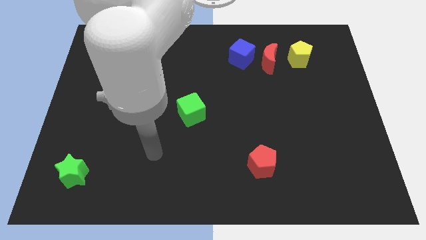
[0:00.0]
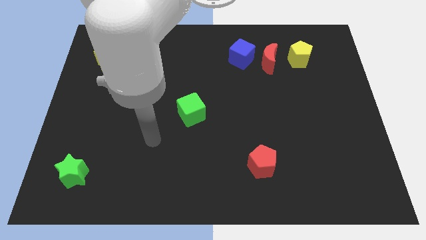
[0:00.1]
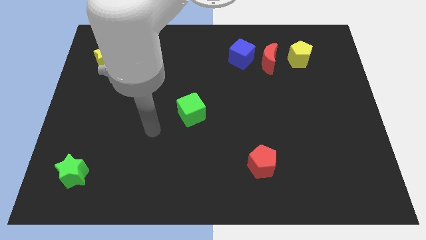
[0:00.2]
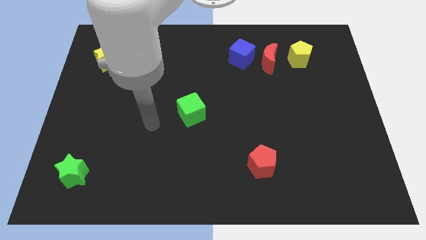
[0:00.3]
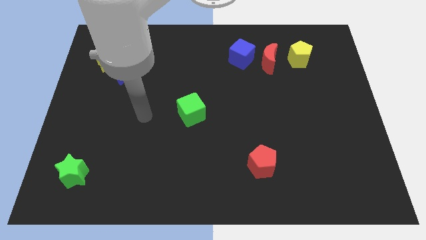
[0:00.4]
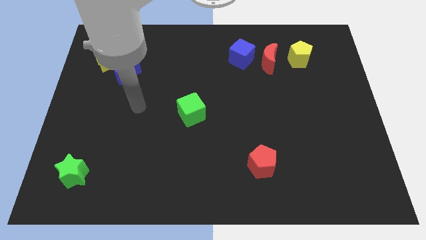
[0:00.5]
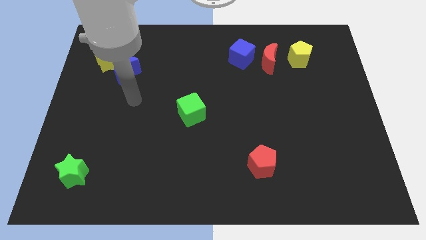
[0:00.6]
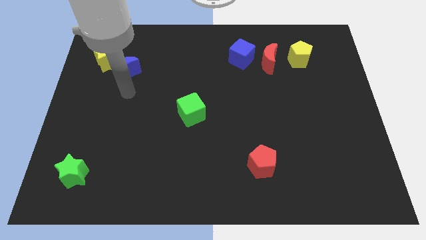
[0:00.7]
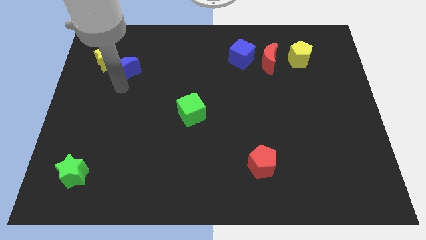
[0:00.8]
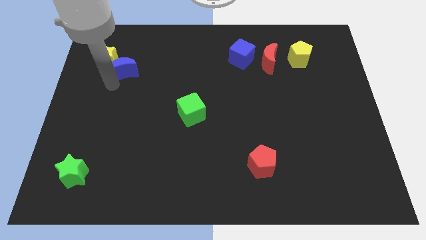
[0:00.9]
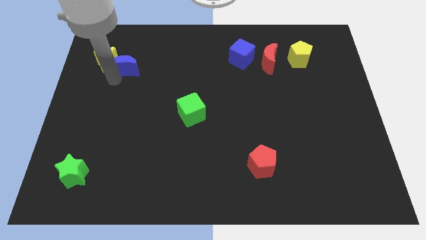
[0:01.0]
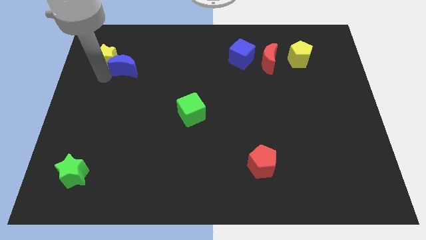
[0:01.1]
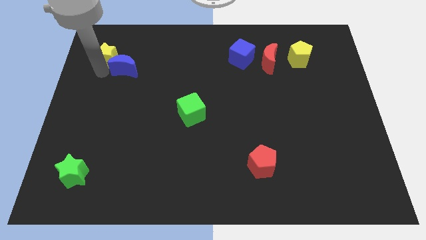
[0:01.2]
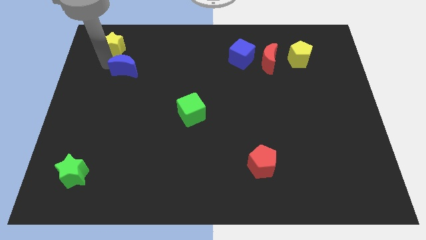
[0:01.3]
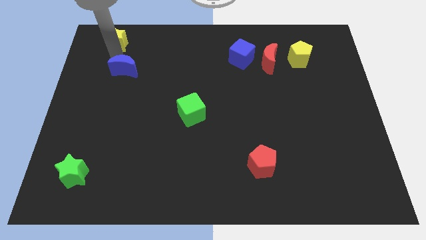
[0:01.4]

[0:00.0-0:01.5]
move the blue moon away from the yellow star

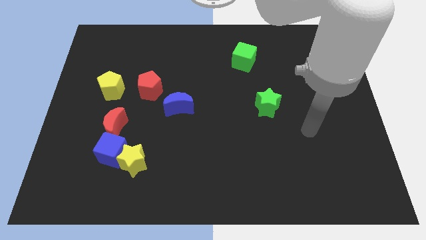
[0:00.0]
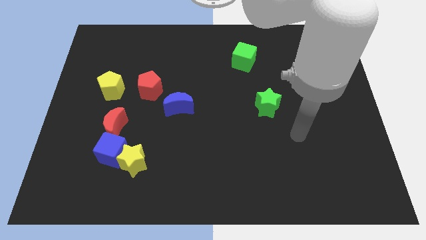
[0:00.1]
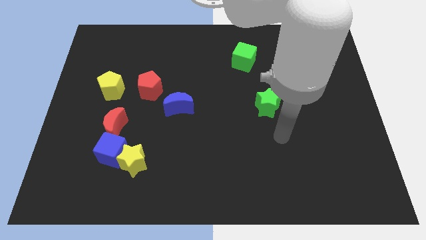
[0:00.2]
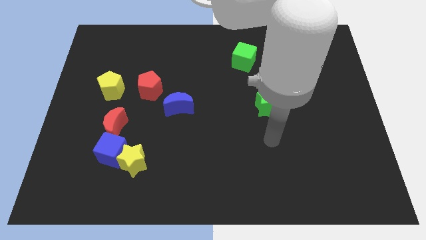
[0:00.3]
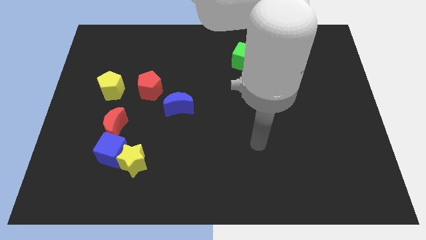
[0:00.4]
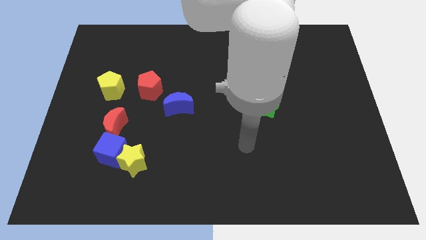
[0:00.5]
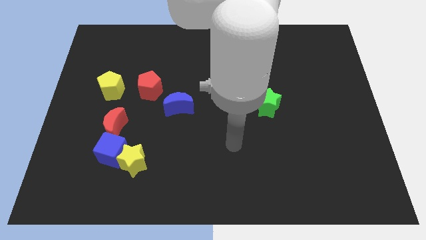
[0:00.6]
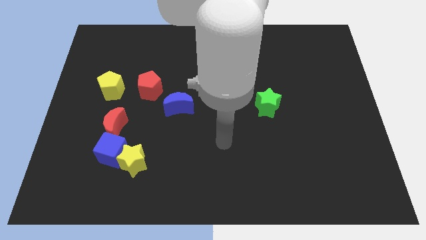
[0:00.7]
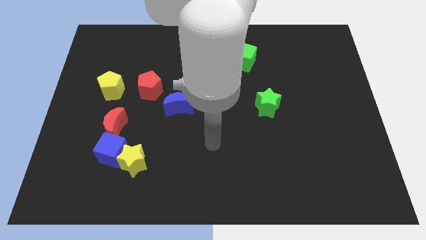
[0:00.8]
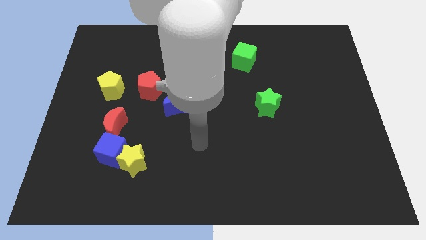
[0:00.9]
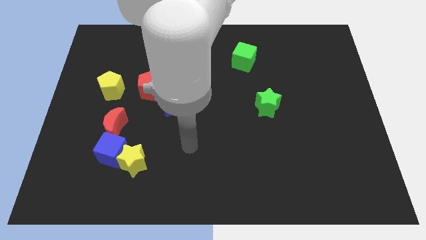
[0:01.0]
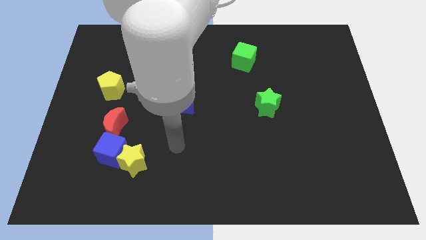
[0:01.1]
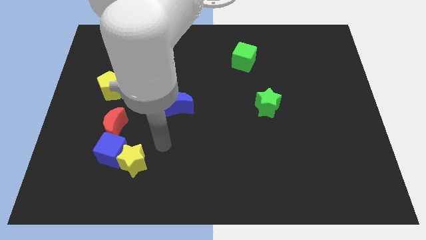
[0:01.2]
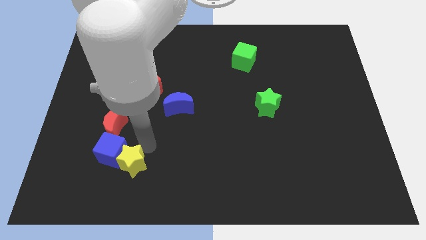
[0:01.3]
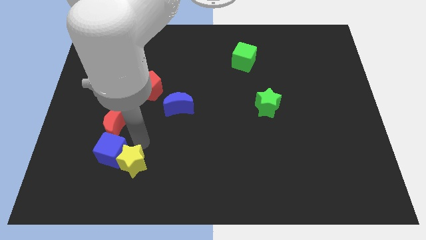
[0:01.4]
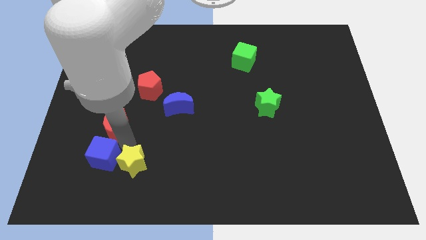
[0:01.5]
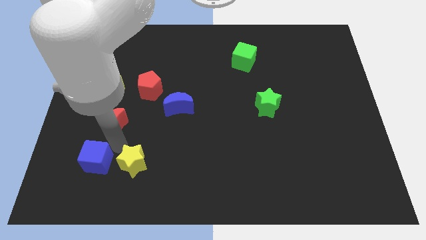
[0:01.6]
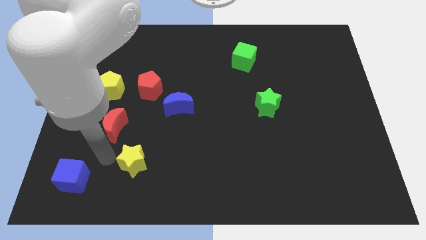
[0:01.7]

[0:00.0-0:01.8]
move the yellow star away from the blue cube

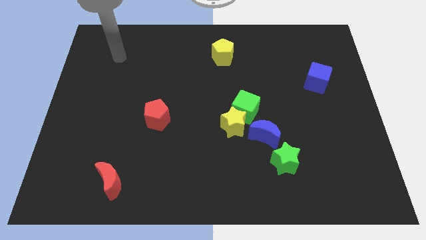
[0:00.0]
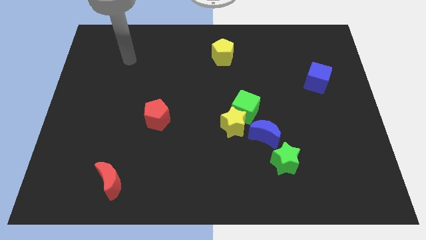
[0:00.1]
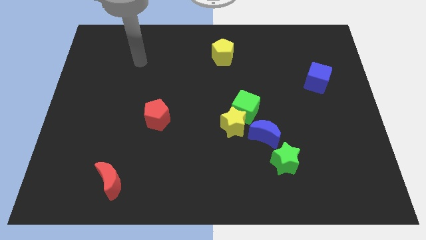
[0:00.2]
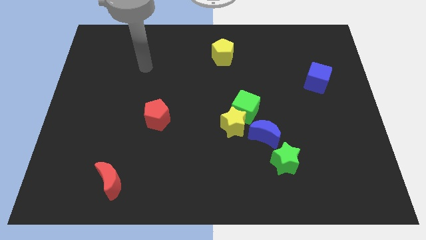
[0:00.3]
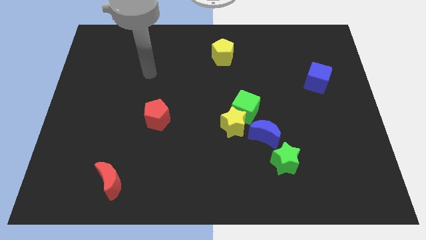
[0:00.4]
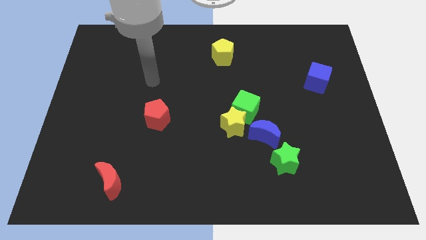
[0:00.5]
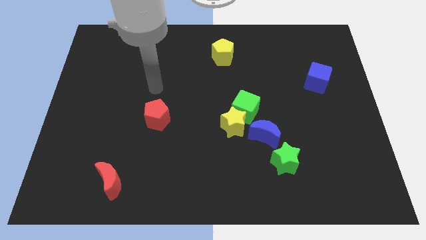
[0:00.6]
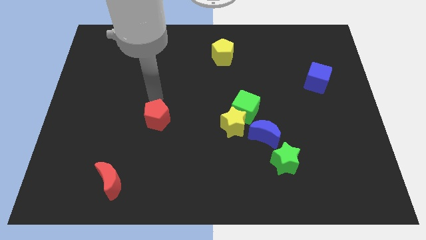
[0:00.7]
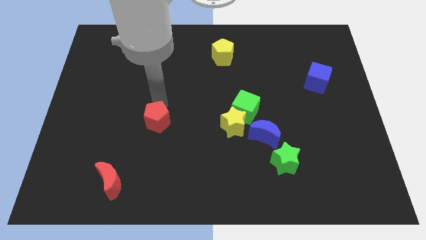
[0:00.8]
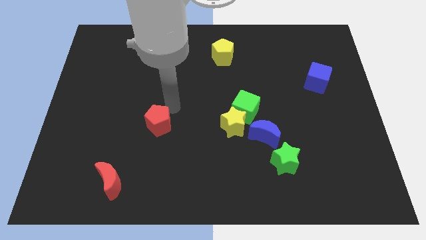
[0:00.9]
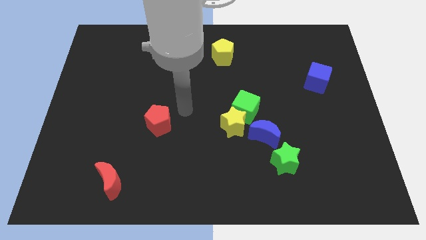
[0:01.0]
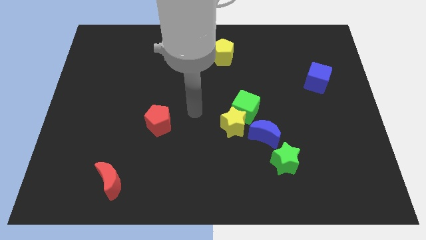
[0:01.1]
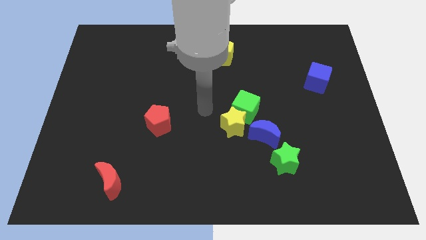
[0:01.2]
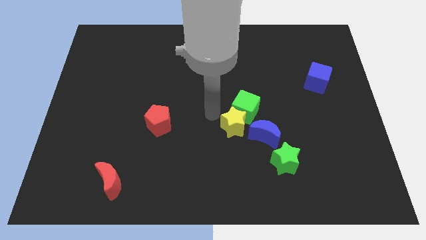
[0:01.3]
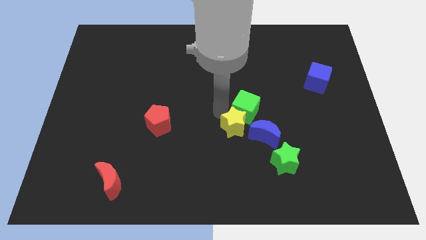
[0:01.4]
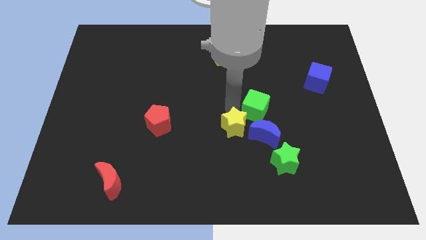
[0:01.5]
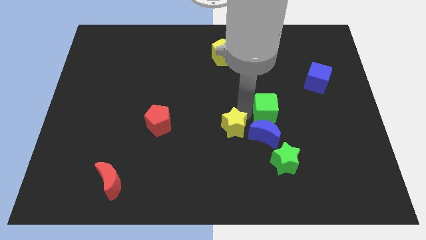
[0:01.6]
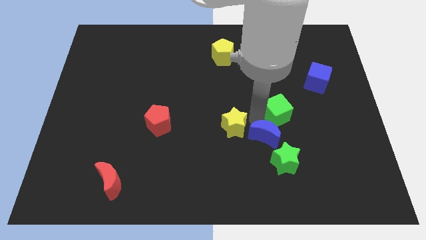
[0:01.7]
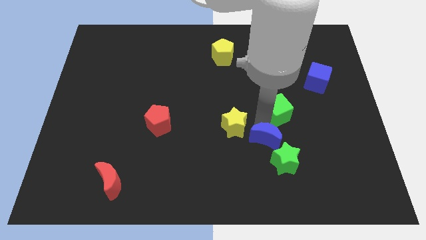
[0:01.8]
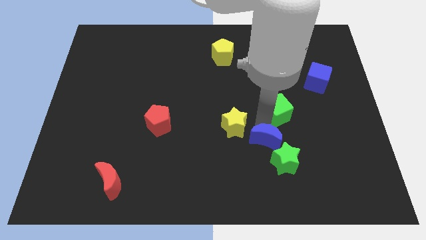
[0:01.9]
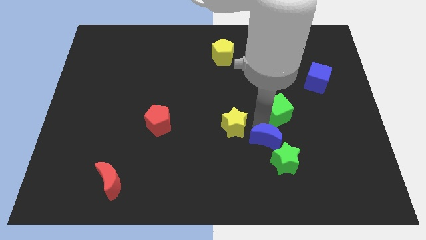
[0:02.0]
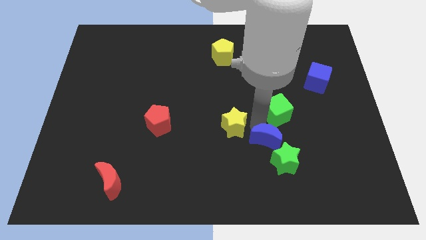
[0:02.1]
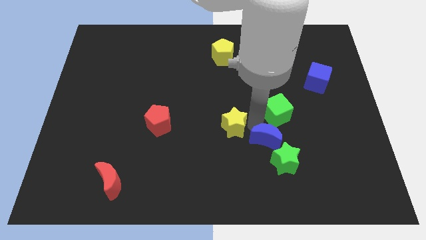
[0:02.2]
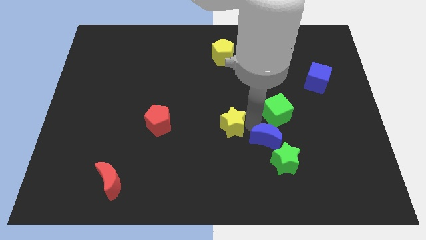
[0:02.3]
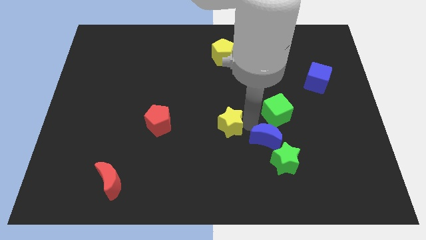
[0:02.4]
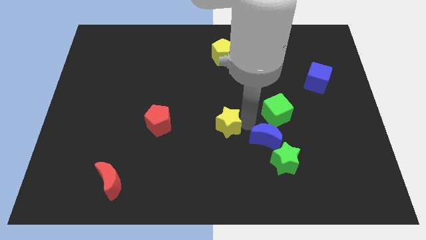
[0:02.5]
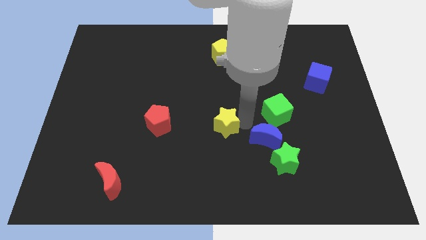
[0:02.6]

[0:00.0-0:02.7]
move the yellow star away from the green cube and blue moon

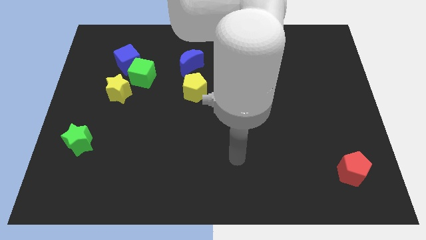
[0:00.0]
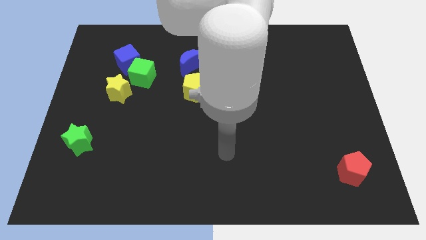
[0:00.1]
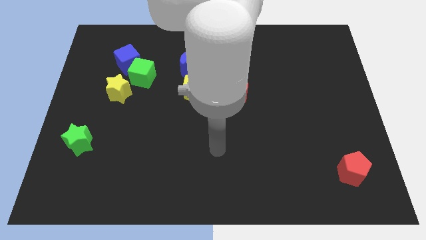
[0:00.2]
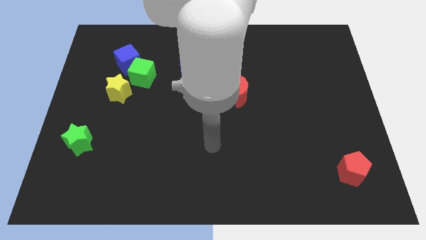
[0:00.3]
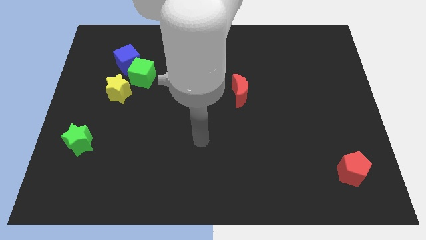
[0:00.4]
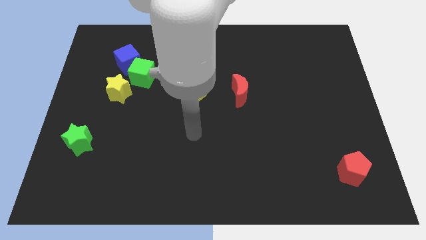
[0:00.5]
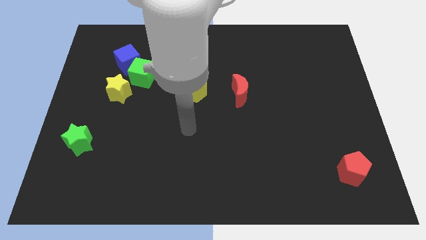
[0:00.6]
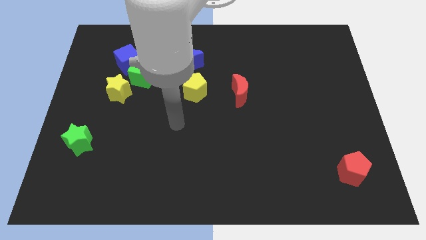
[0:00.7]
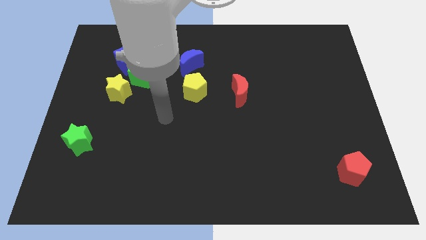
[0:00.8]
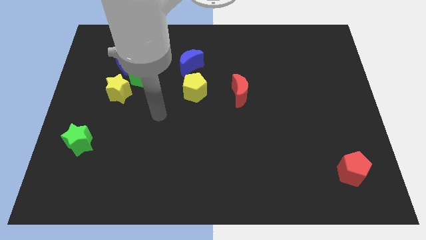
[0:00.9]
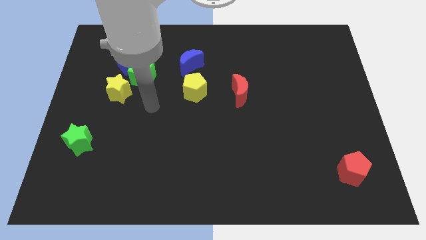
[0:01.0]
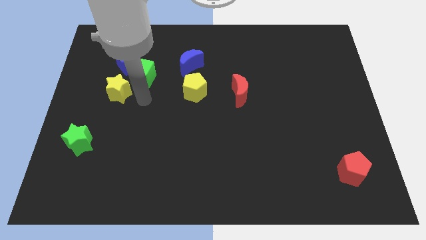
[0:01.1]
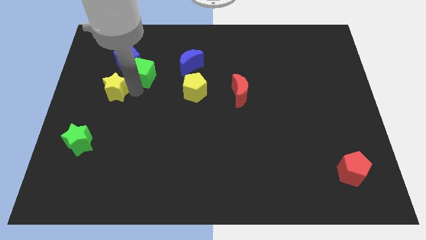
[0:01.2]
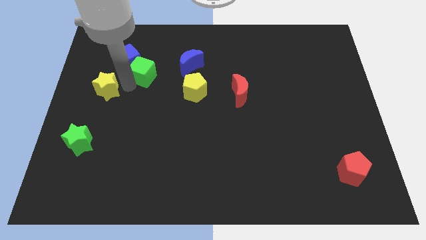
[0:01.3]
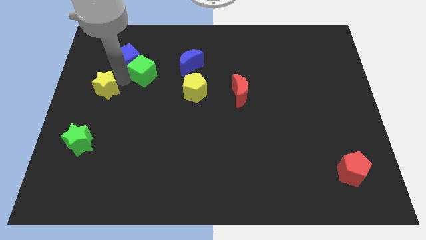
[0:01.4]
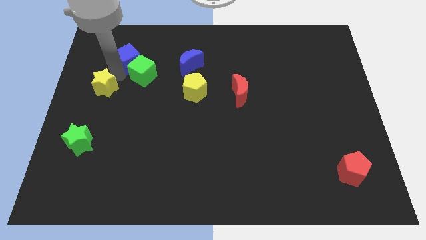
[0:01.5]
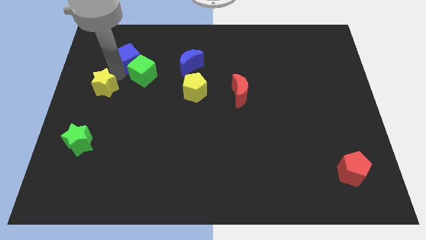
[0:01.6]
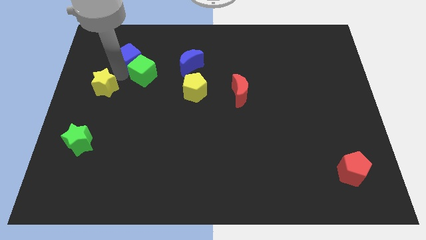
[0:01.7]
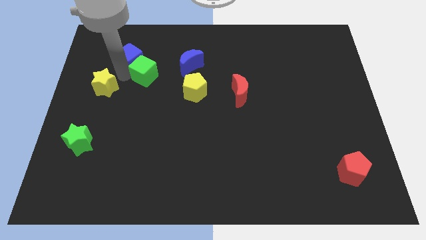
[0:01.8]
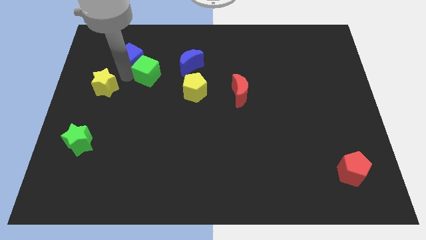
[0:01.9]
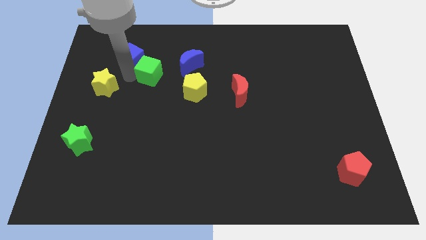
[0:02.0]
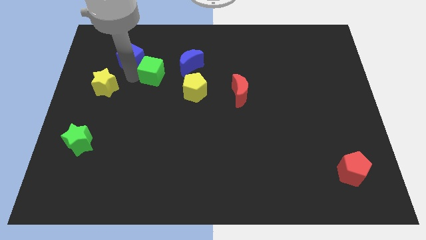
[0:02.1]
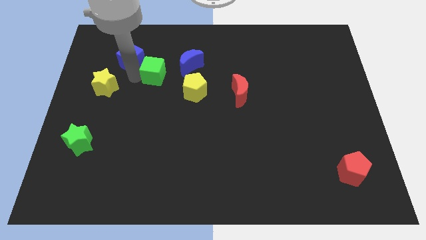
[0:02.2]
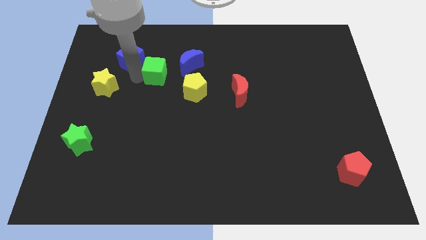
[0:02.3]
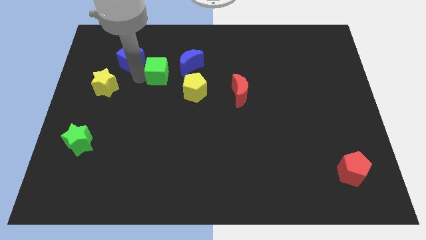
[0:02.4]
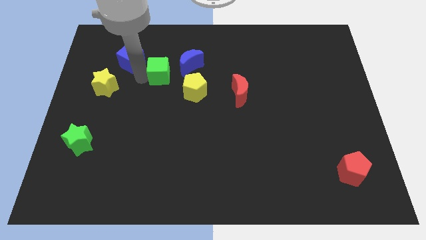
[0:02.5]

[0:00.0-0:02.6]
move the green cube away from the blue cube and yellow star

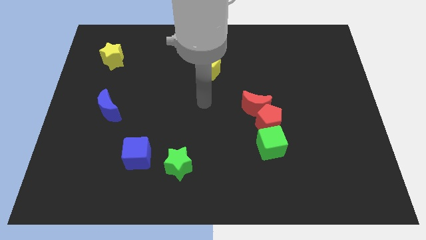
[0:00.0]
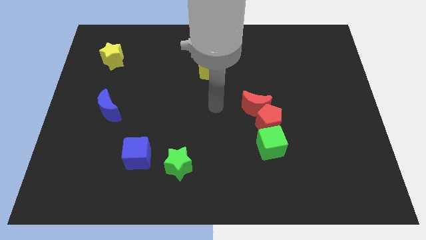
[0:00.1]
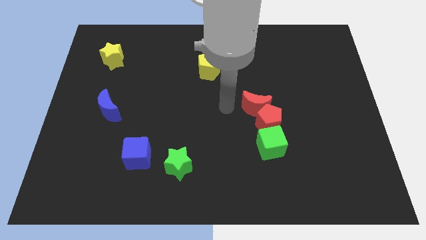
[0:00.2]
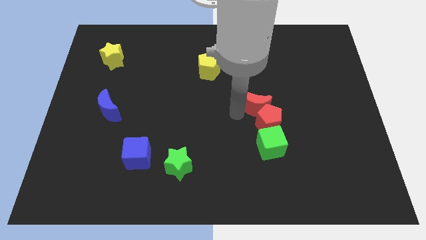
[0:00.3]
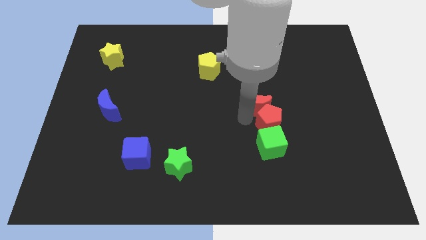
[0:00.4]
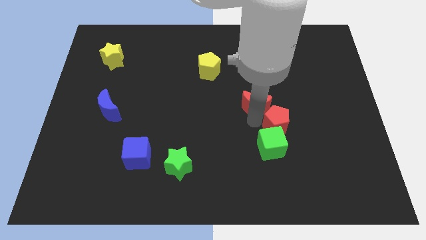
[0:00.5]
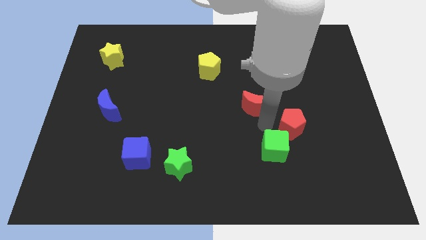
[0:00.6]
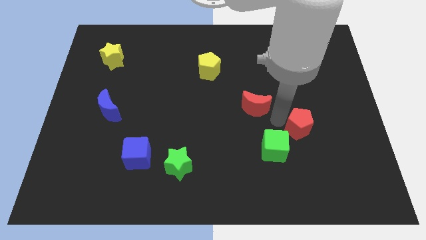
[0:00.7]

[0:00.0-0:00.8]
move the red moon away from the red pentagon

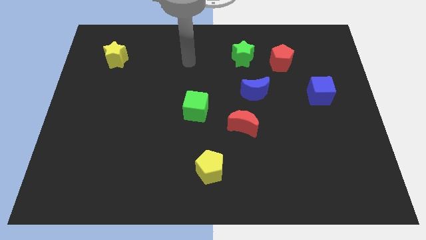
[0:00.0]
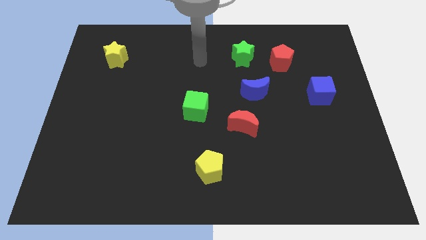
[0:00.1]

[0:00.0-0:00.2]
pull the red pentagon apart from the green star
